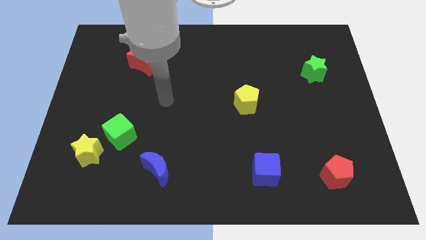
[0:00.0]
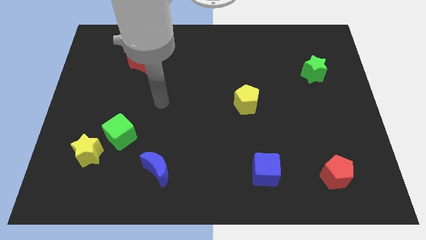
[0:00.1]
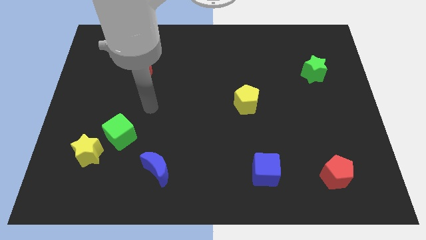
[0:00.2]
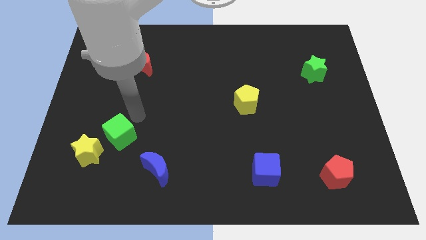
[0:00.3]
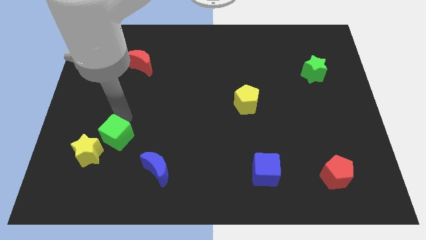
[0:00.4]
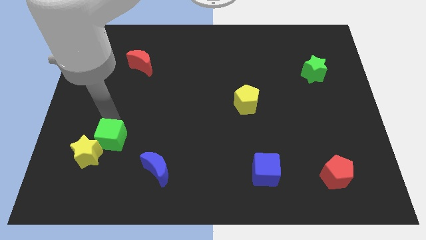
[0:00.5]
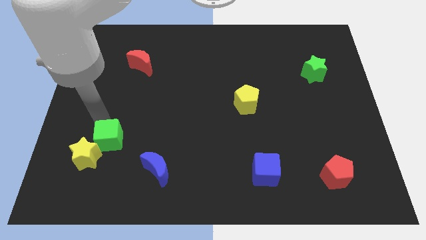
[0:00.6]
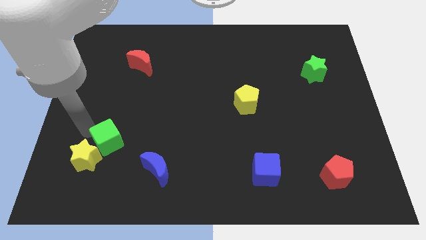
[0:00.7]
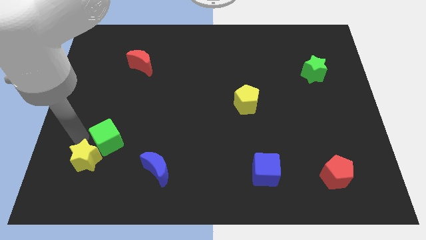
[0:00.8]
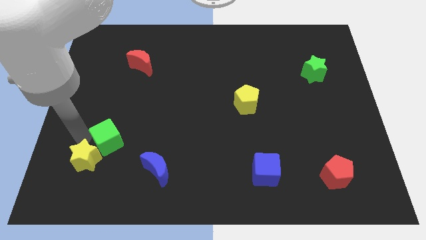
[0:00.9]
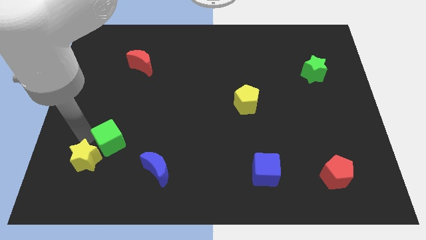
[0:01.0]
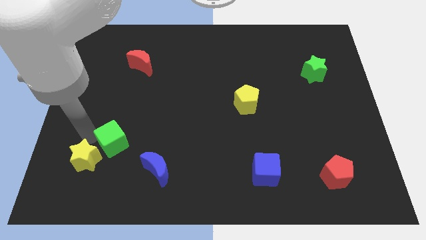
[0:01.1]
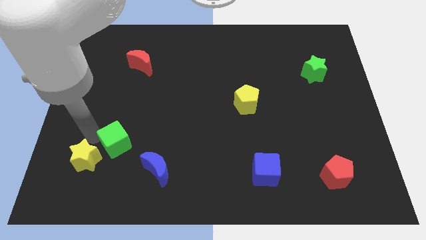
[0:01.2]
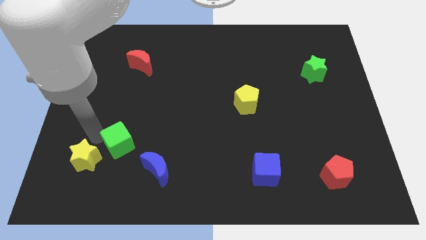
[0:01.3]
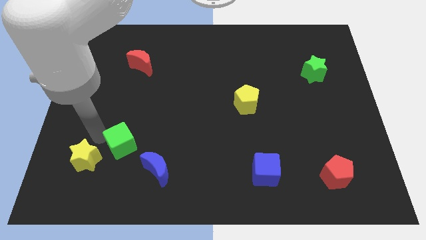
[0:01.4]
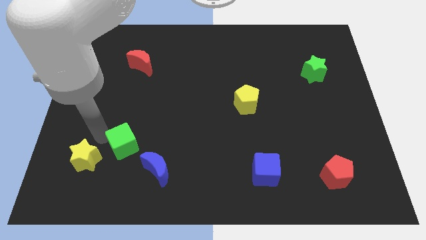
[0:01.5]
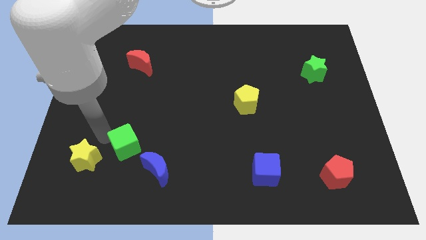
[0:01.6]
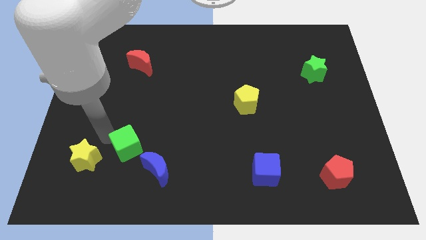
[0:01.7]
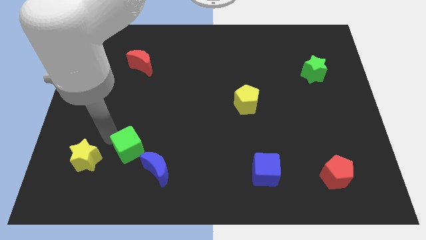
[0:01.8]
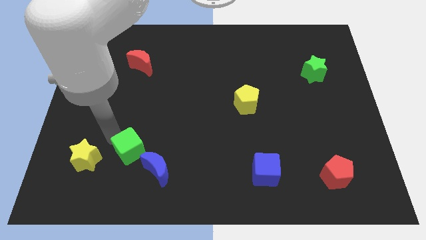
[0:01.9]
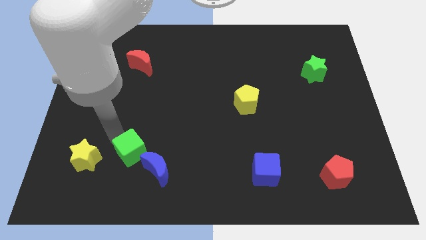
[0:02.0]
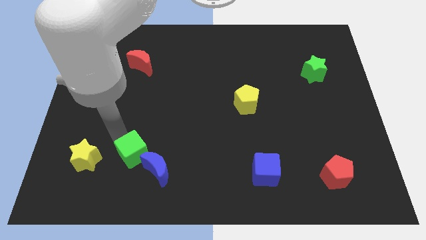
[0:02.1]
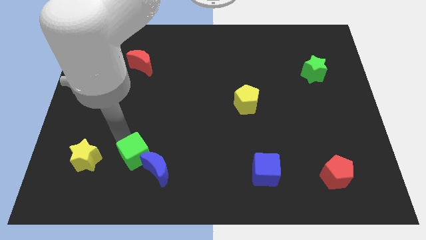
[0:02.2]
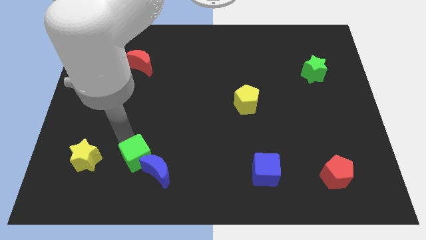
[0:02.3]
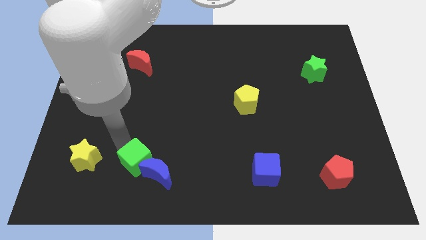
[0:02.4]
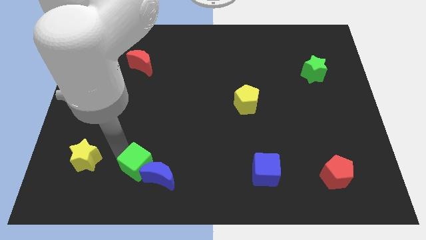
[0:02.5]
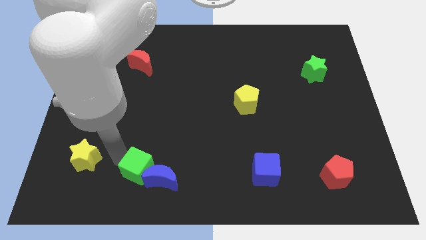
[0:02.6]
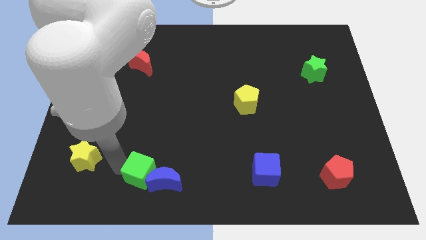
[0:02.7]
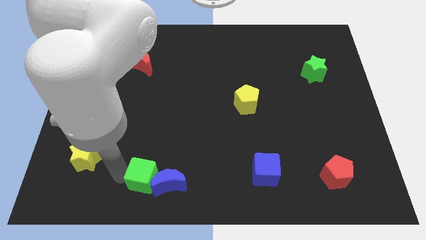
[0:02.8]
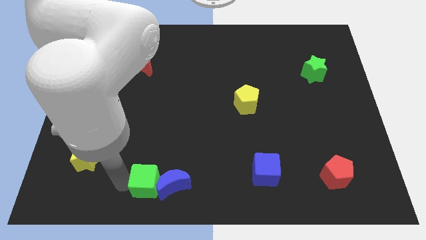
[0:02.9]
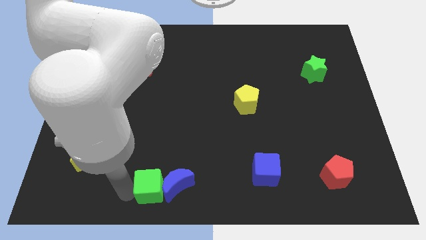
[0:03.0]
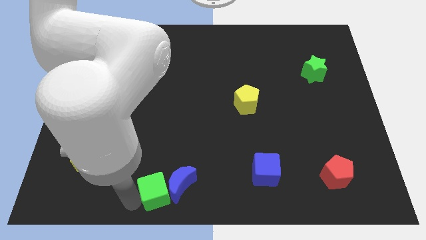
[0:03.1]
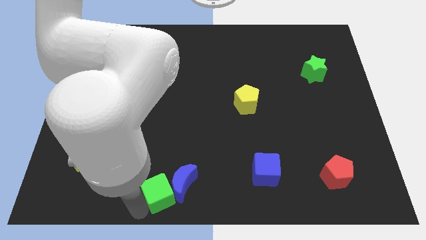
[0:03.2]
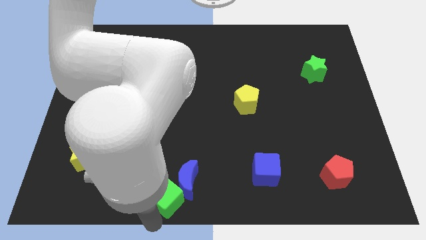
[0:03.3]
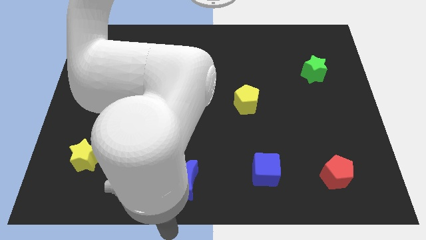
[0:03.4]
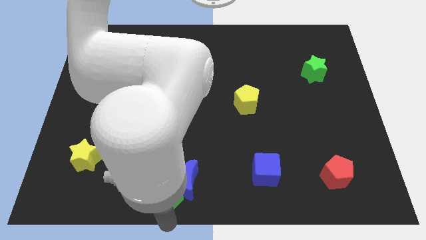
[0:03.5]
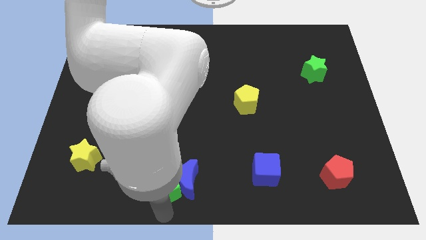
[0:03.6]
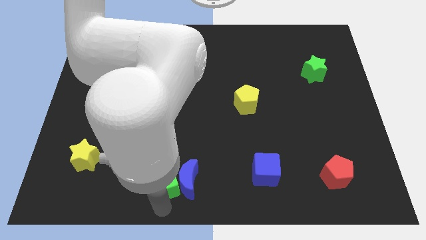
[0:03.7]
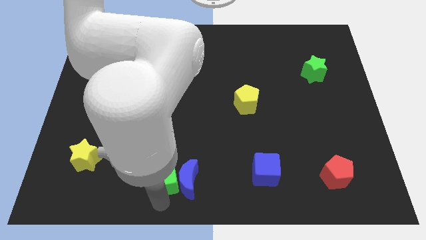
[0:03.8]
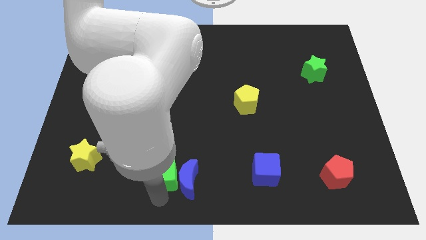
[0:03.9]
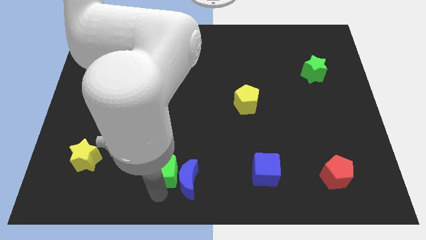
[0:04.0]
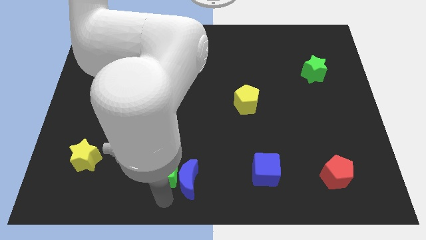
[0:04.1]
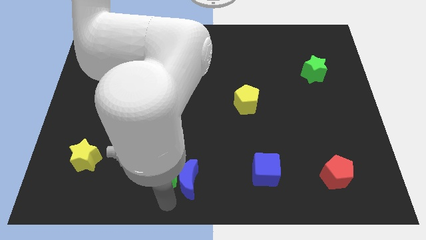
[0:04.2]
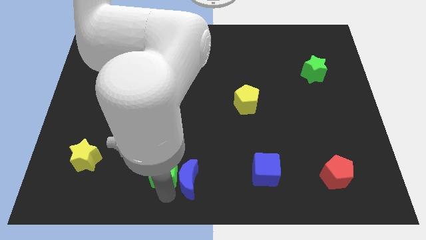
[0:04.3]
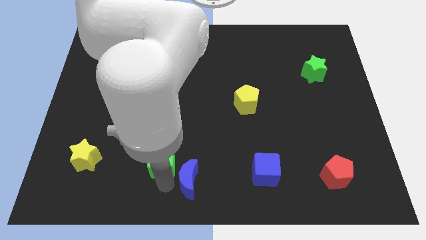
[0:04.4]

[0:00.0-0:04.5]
push the green cube to the right a little

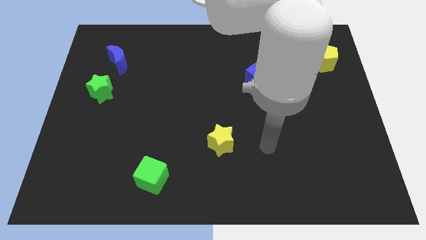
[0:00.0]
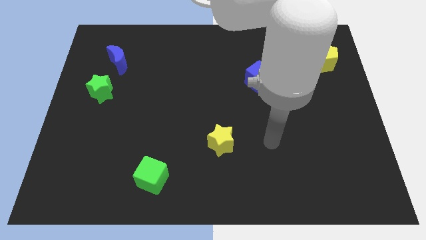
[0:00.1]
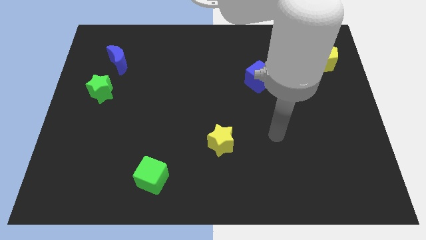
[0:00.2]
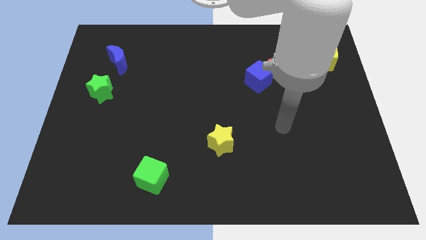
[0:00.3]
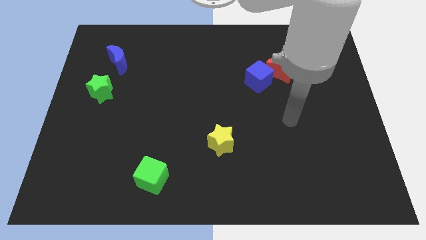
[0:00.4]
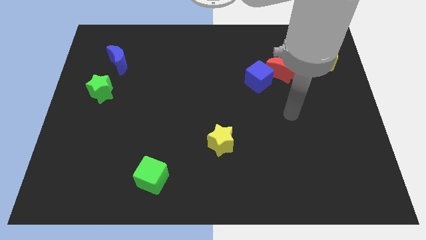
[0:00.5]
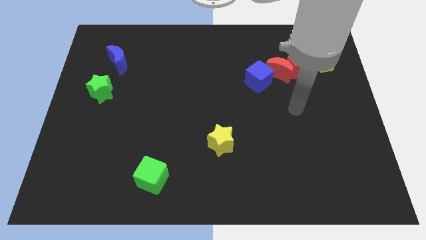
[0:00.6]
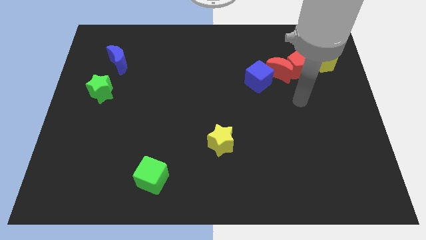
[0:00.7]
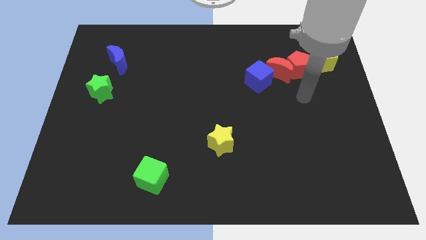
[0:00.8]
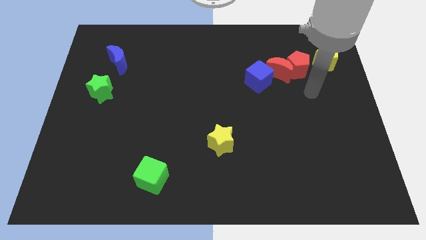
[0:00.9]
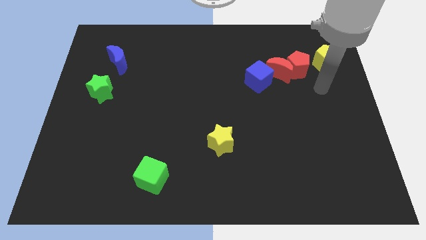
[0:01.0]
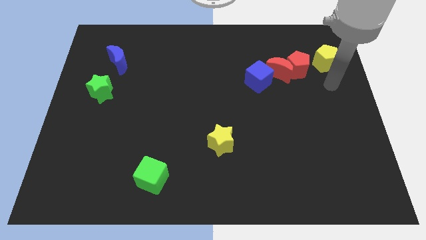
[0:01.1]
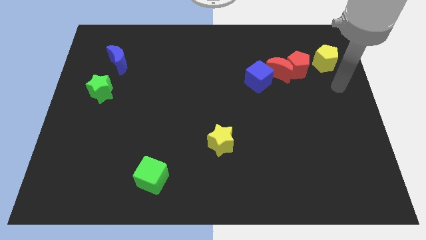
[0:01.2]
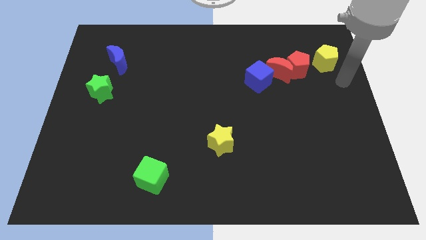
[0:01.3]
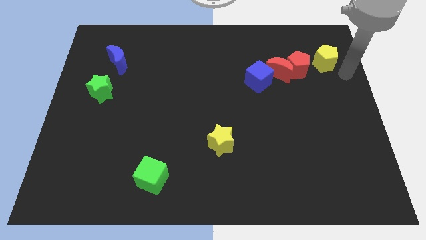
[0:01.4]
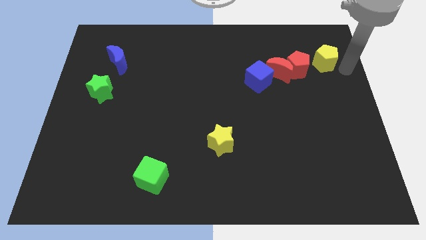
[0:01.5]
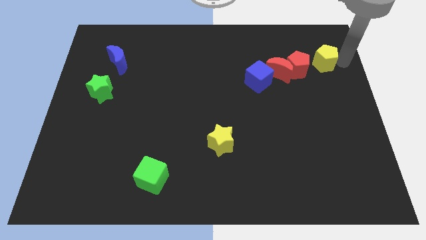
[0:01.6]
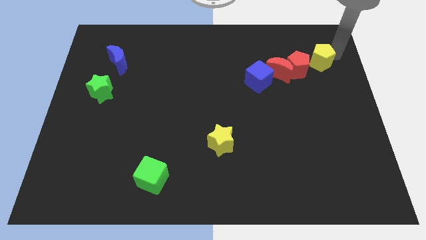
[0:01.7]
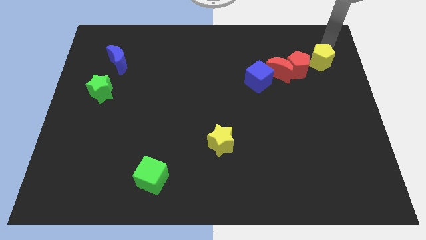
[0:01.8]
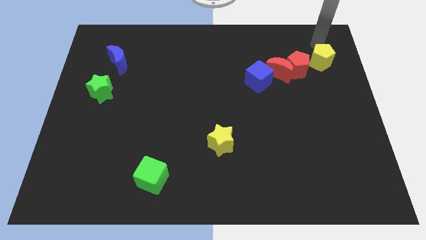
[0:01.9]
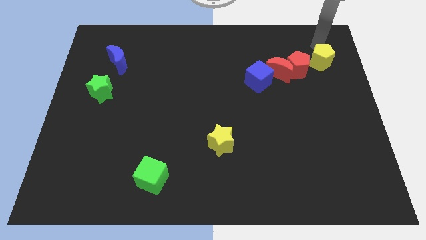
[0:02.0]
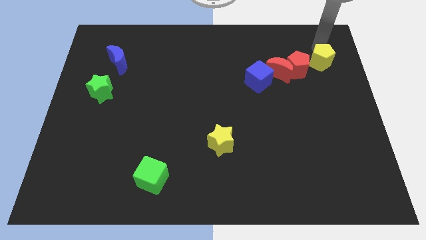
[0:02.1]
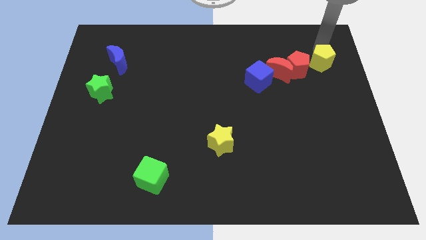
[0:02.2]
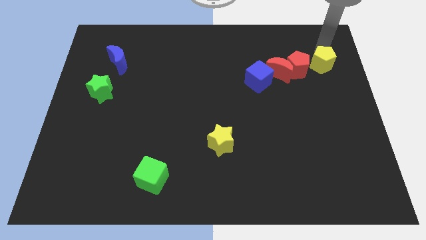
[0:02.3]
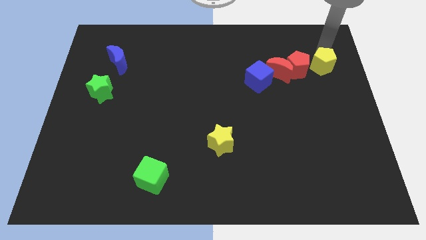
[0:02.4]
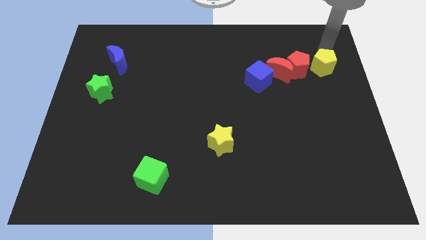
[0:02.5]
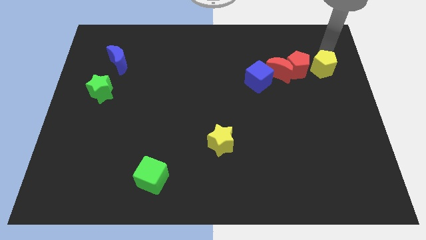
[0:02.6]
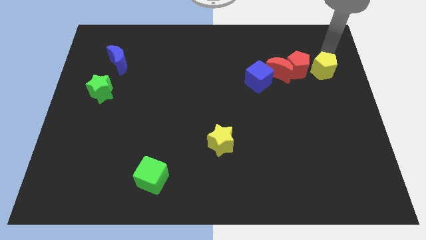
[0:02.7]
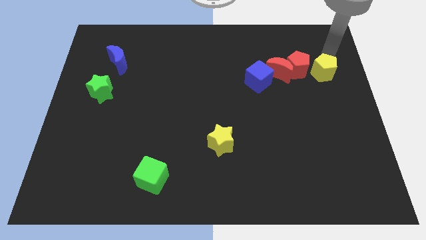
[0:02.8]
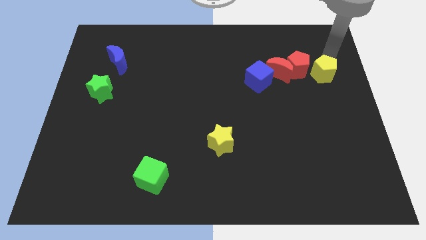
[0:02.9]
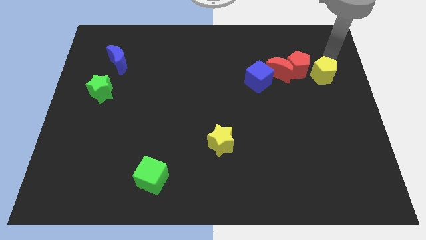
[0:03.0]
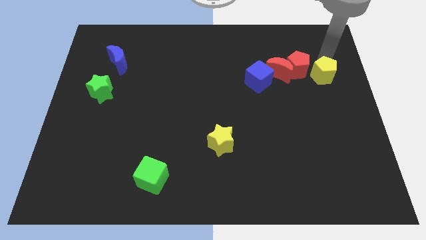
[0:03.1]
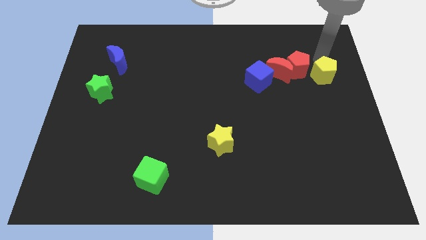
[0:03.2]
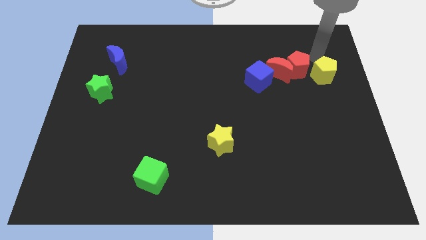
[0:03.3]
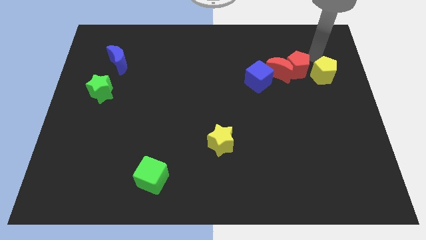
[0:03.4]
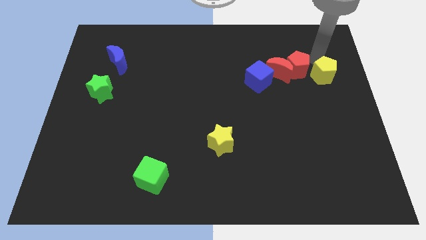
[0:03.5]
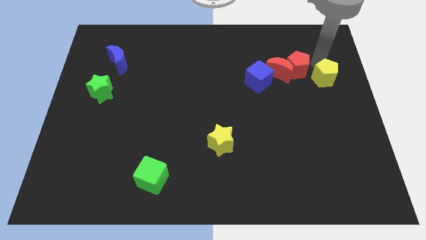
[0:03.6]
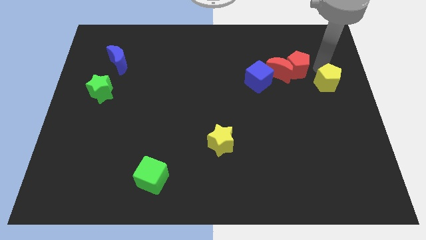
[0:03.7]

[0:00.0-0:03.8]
move the yellow pentagon down a little bit
